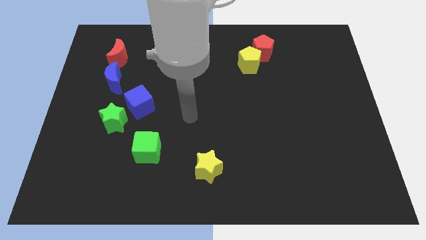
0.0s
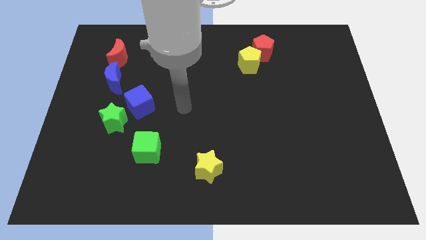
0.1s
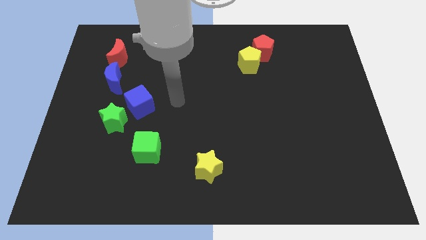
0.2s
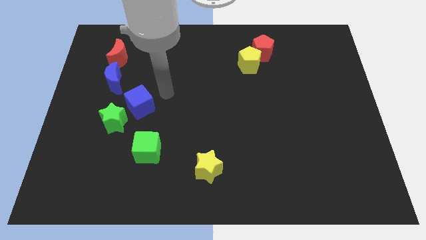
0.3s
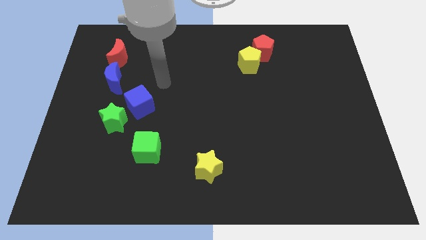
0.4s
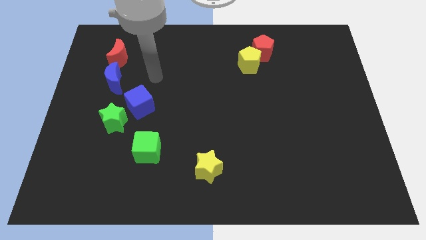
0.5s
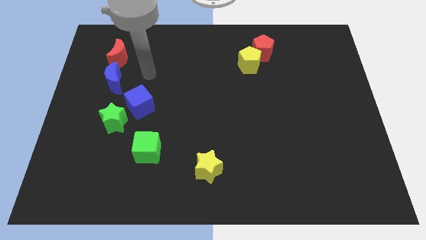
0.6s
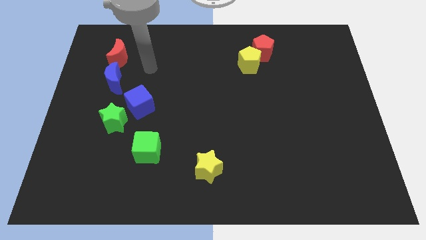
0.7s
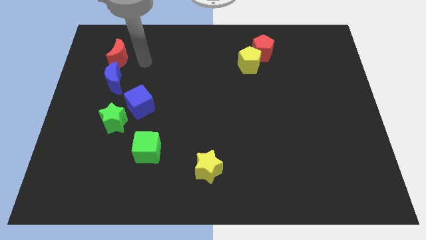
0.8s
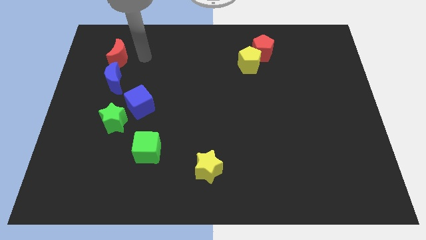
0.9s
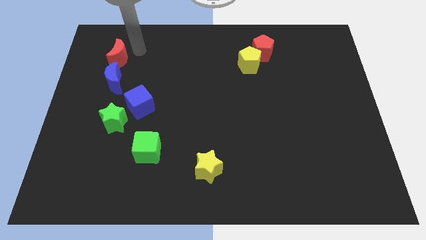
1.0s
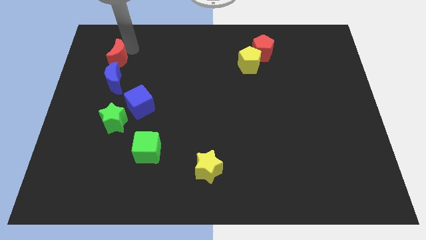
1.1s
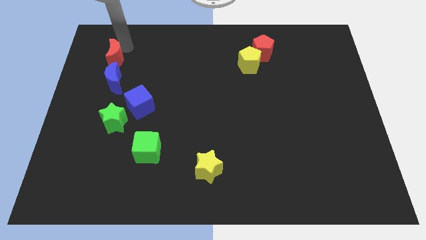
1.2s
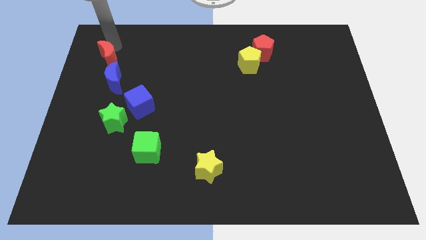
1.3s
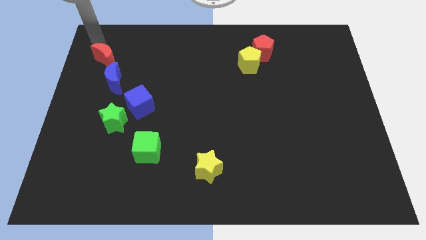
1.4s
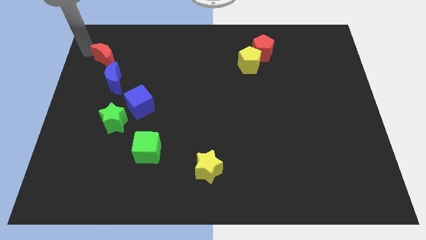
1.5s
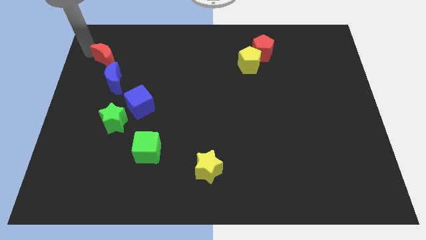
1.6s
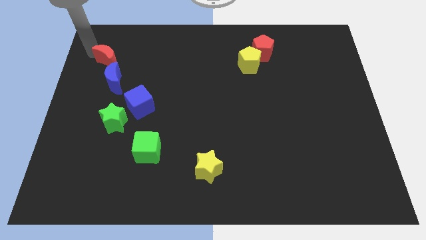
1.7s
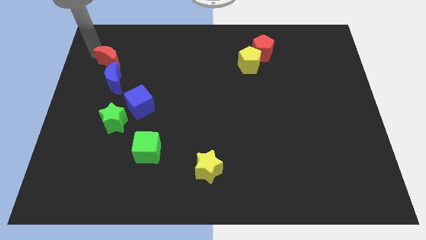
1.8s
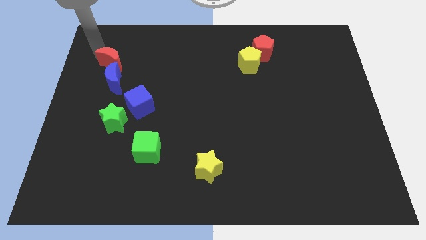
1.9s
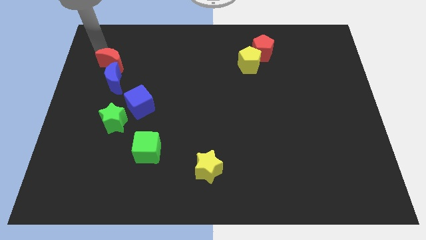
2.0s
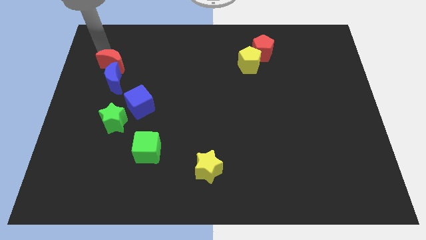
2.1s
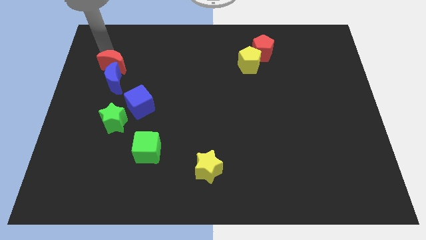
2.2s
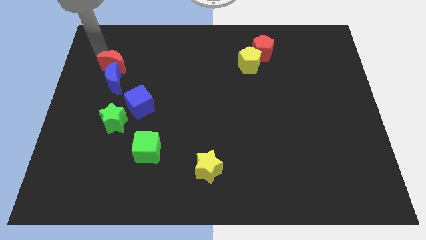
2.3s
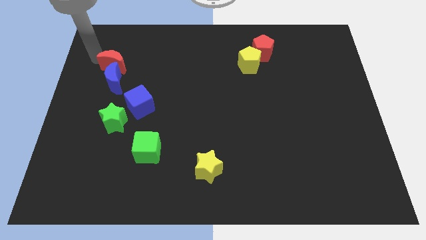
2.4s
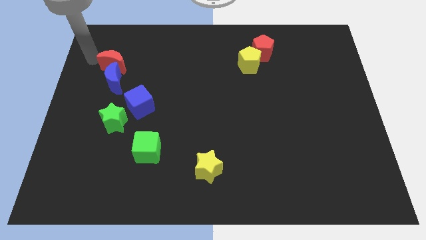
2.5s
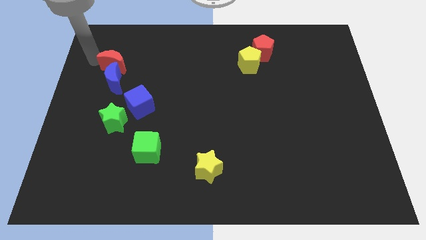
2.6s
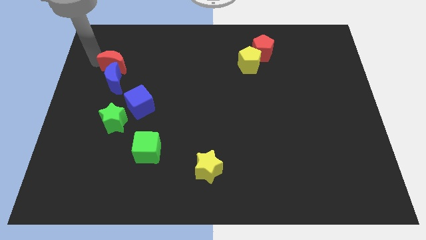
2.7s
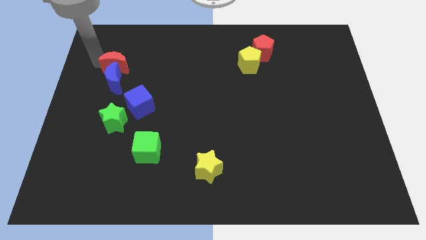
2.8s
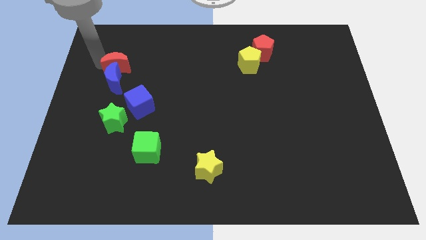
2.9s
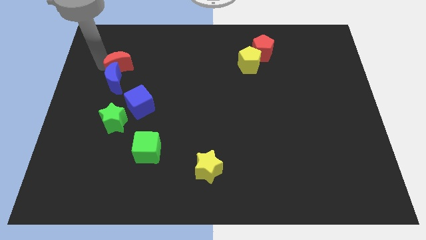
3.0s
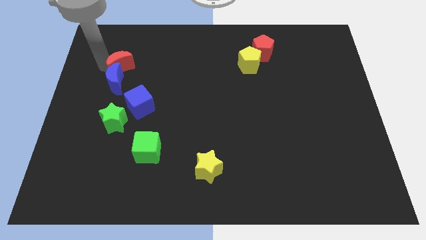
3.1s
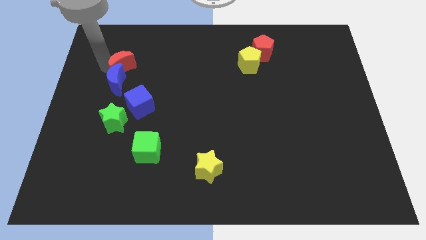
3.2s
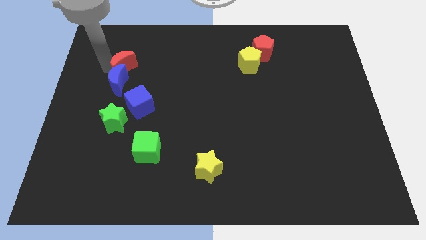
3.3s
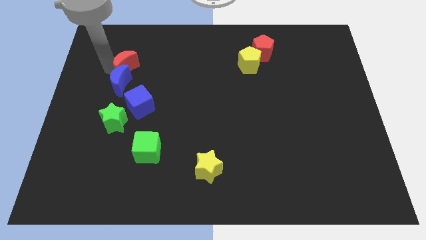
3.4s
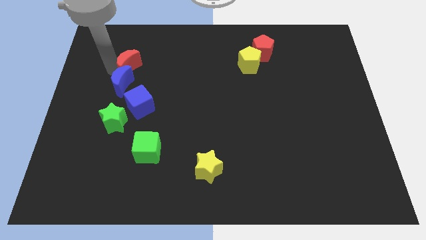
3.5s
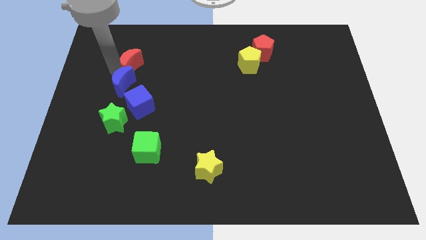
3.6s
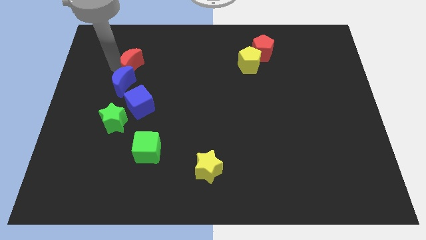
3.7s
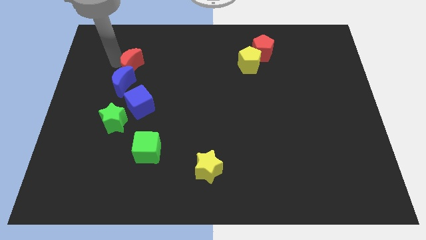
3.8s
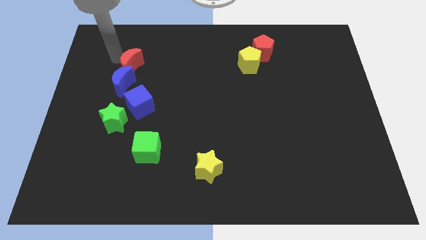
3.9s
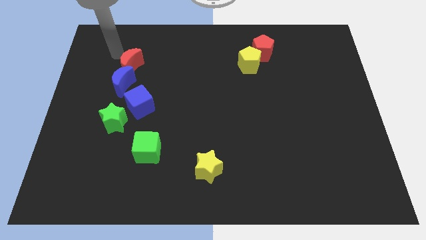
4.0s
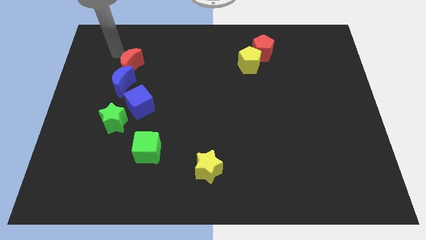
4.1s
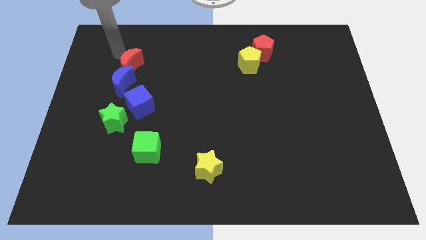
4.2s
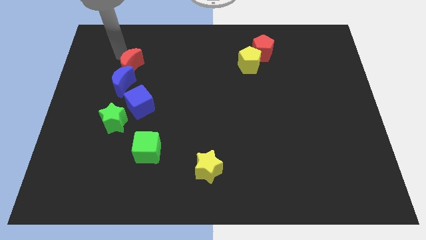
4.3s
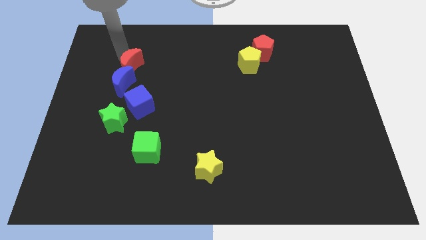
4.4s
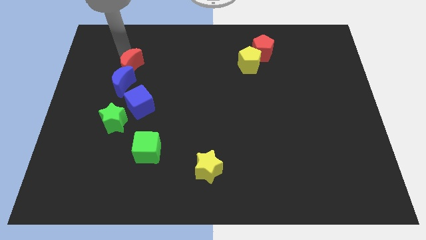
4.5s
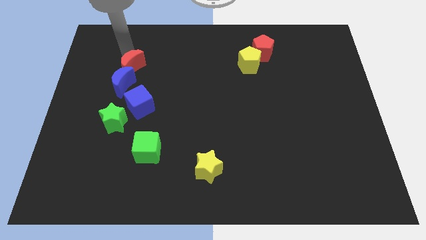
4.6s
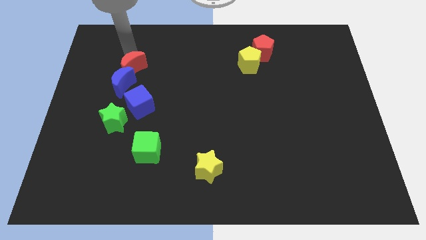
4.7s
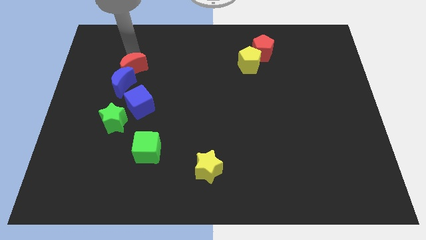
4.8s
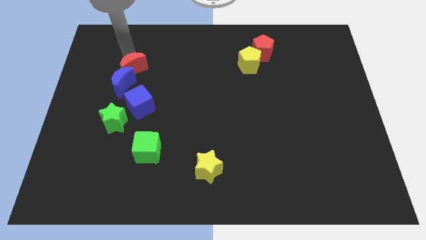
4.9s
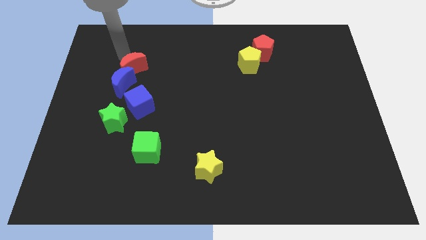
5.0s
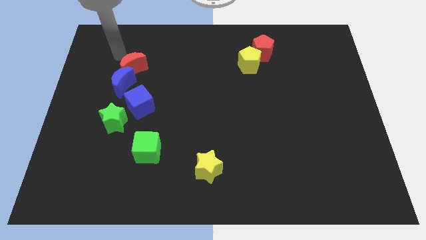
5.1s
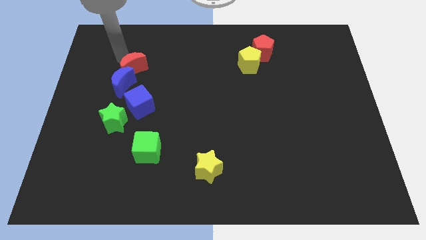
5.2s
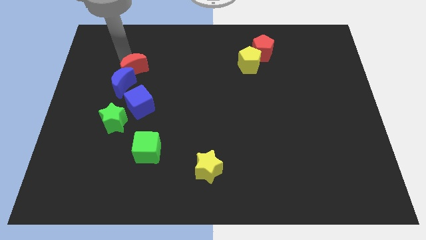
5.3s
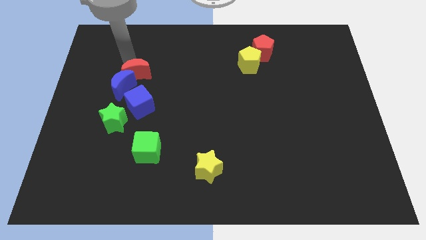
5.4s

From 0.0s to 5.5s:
slightly move the red moon down and to the right

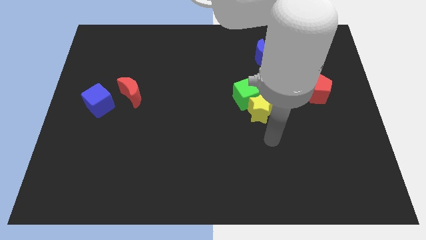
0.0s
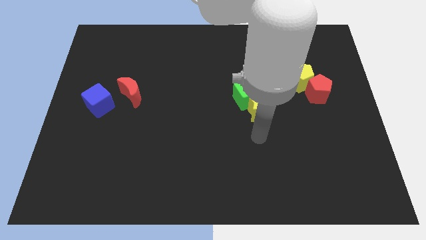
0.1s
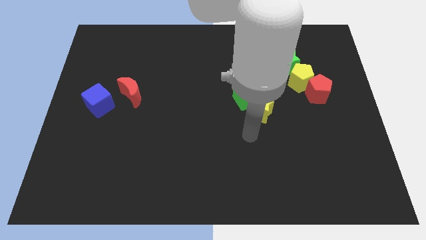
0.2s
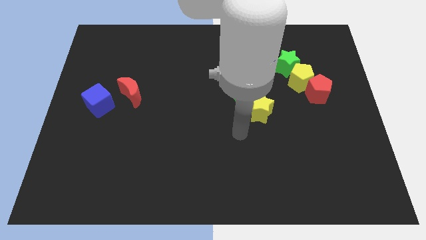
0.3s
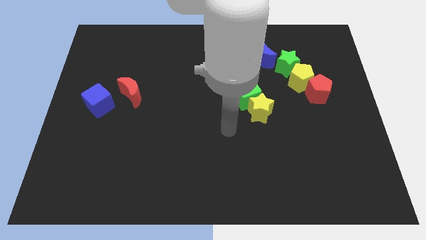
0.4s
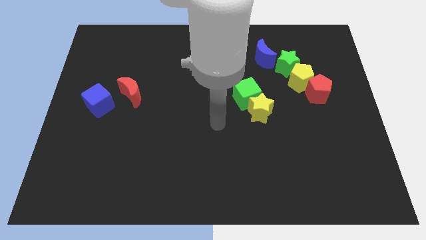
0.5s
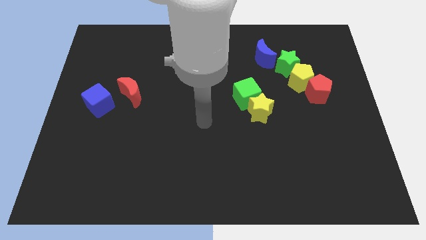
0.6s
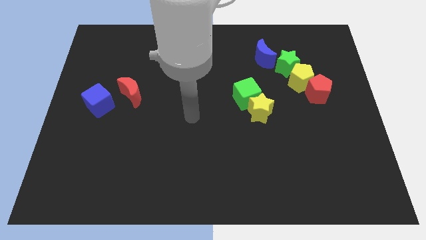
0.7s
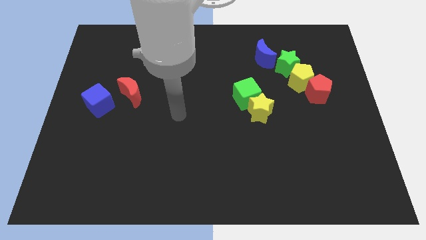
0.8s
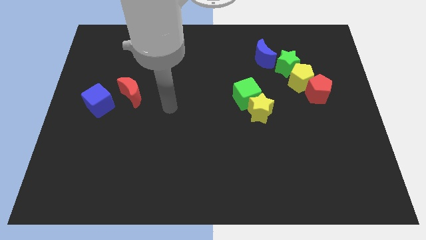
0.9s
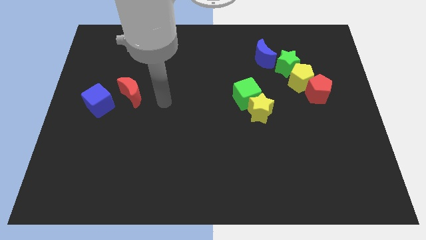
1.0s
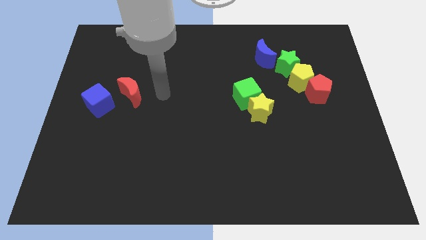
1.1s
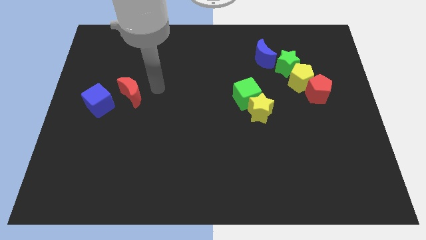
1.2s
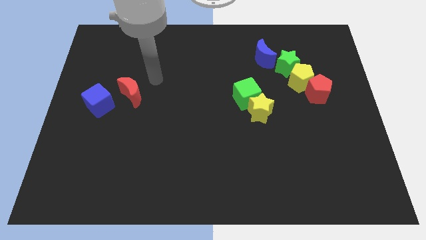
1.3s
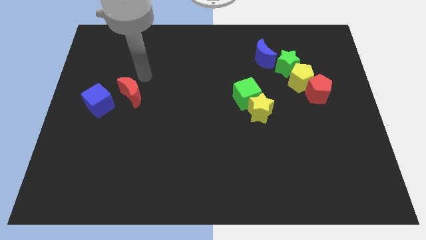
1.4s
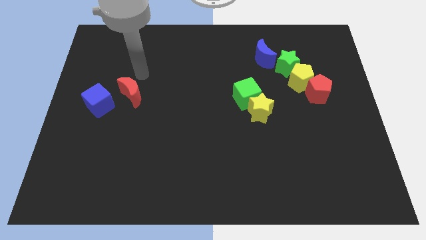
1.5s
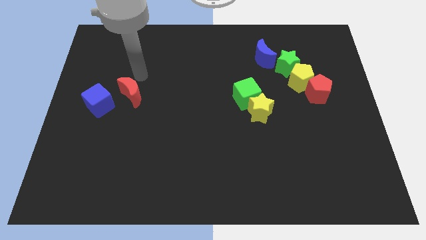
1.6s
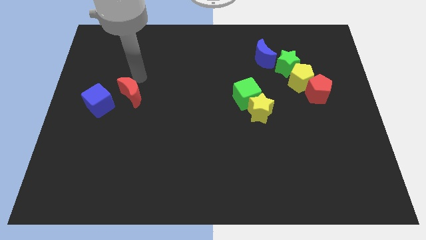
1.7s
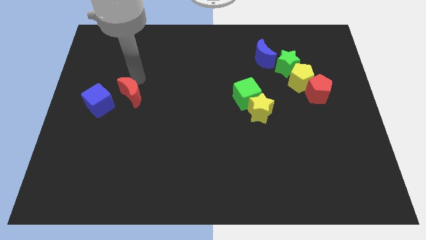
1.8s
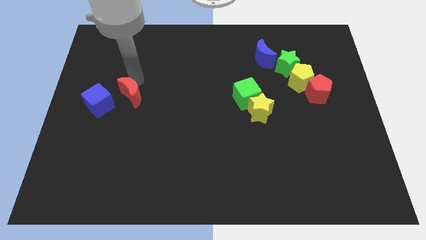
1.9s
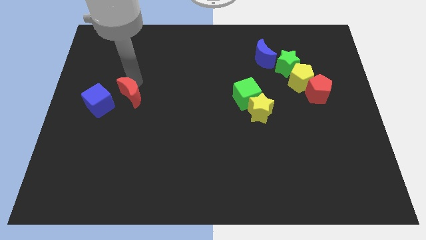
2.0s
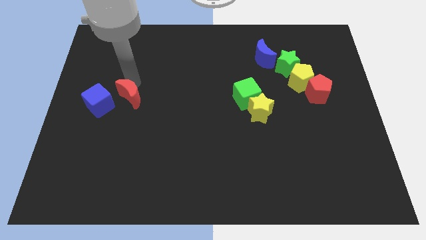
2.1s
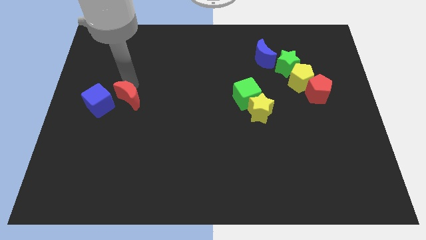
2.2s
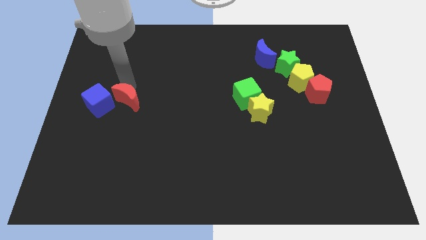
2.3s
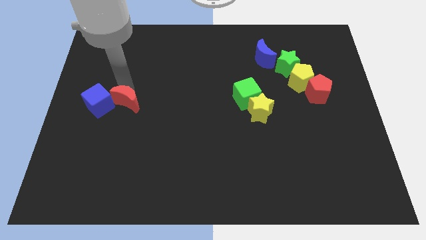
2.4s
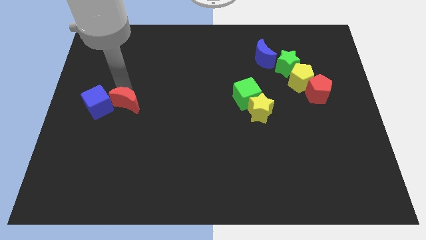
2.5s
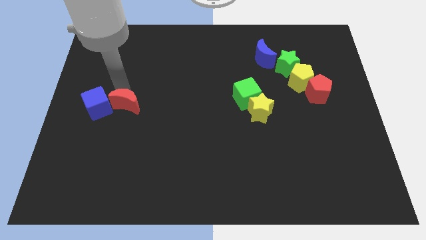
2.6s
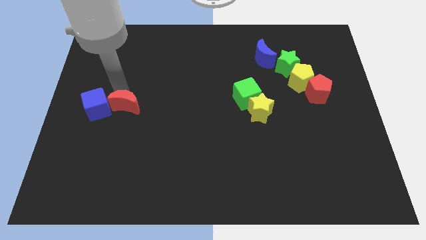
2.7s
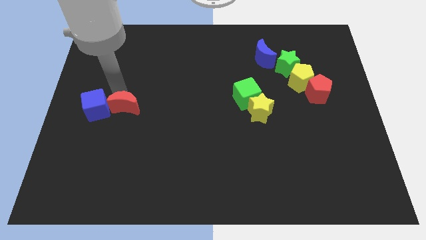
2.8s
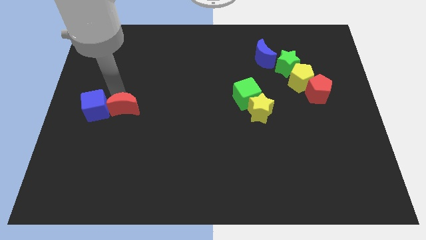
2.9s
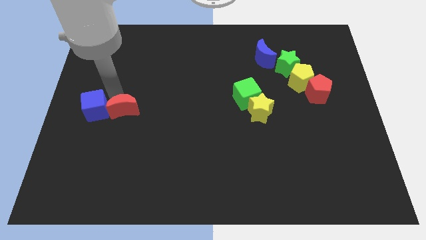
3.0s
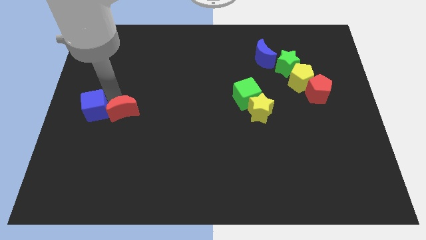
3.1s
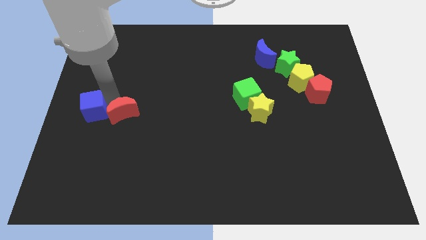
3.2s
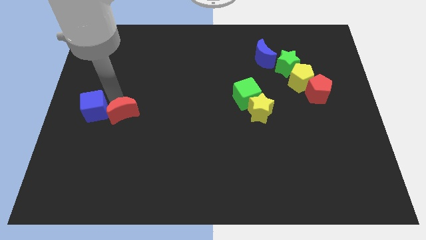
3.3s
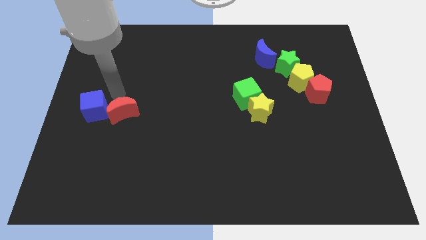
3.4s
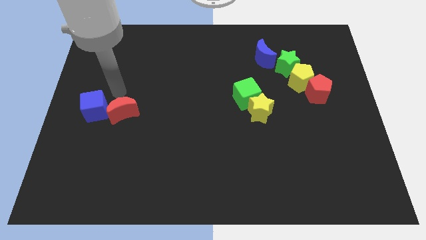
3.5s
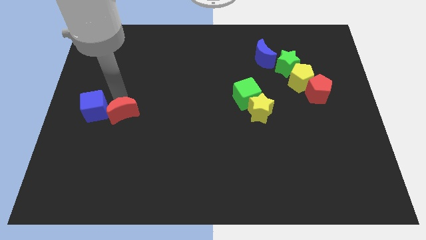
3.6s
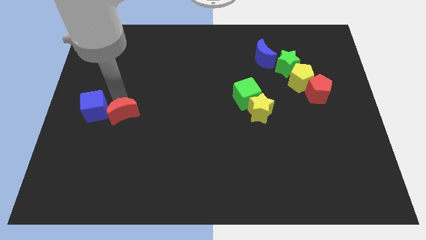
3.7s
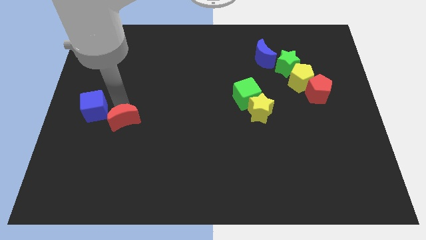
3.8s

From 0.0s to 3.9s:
slide the red moon a little downwards
